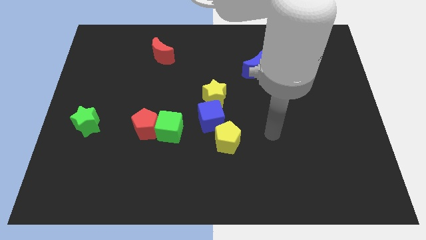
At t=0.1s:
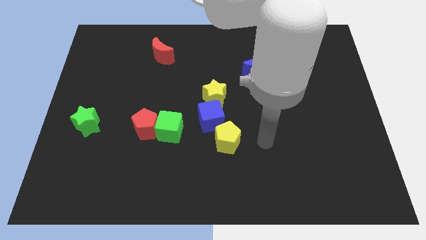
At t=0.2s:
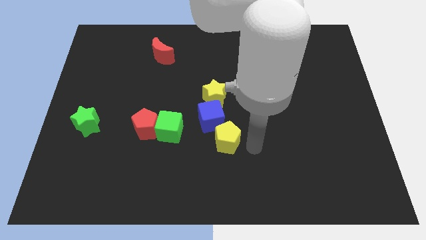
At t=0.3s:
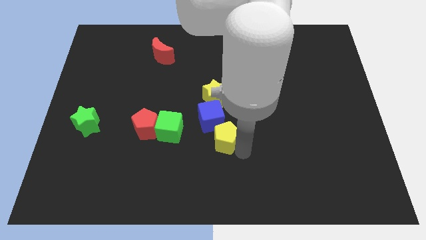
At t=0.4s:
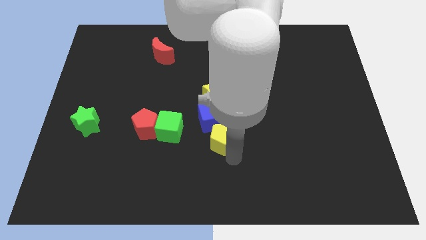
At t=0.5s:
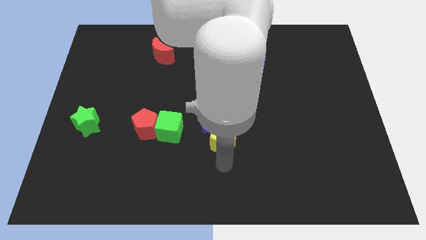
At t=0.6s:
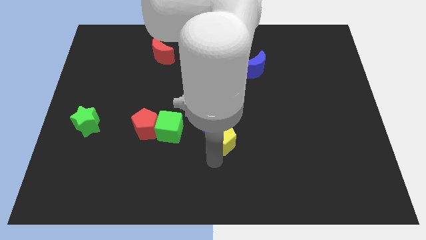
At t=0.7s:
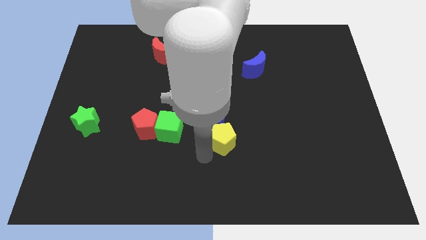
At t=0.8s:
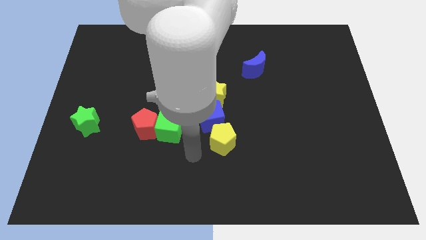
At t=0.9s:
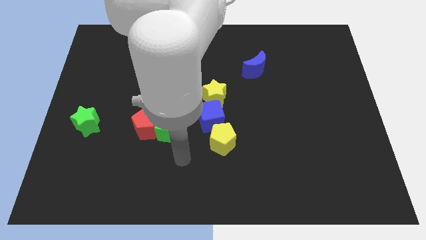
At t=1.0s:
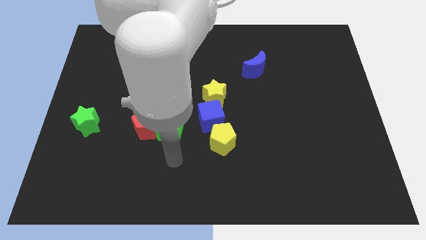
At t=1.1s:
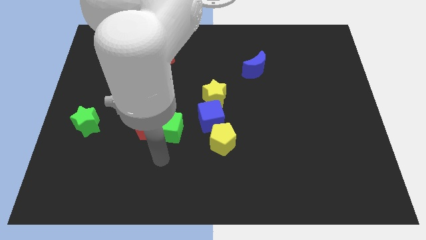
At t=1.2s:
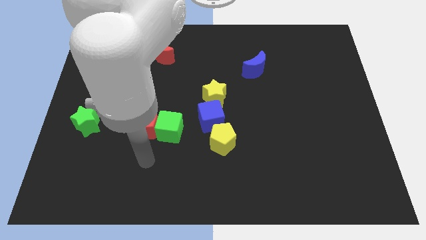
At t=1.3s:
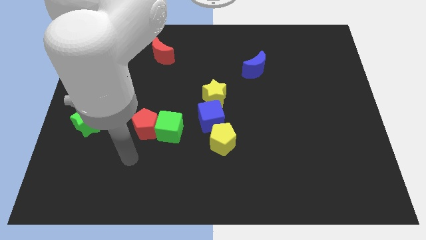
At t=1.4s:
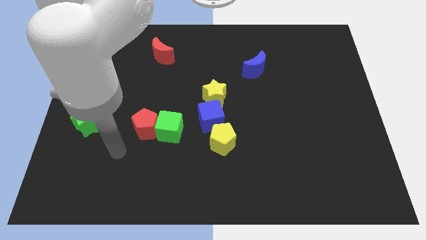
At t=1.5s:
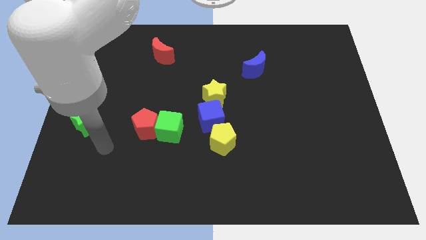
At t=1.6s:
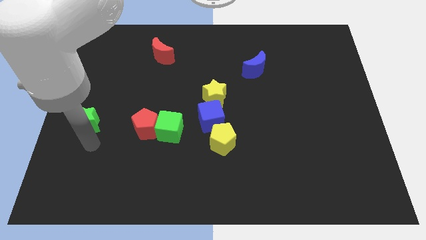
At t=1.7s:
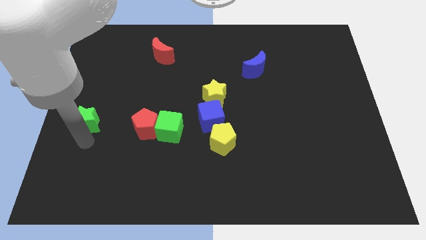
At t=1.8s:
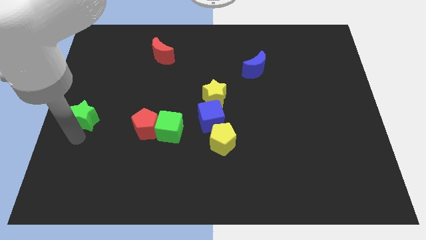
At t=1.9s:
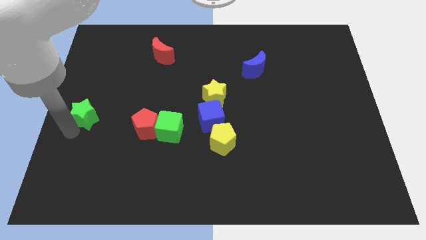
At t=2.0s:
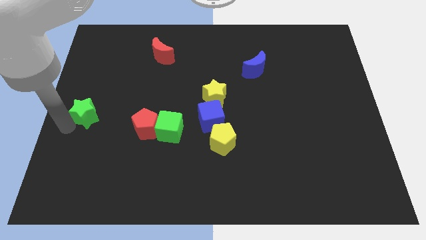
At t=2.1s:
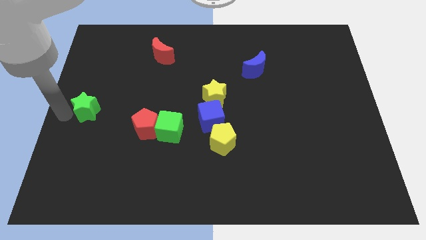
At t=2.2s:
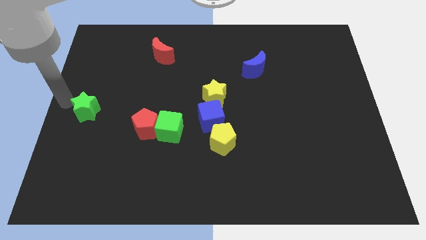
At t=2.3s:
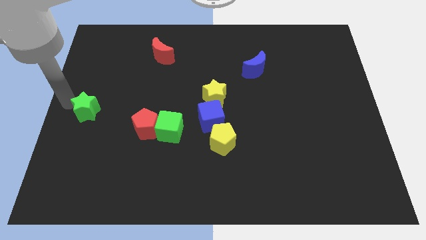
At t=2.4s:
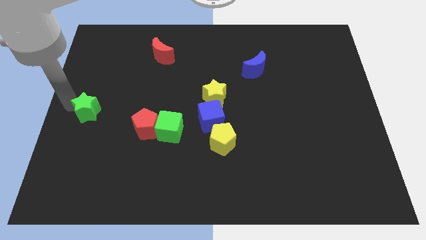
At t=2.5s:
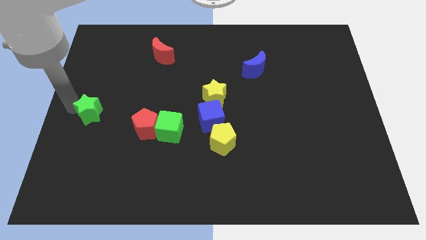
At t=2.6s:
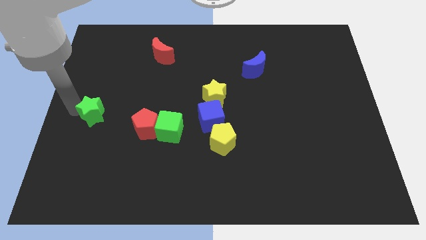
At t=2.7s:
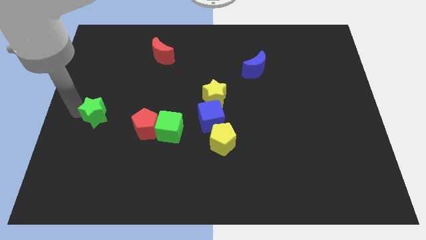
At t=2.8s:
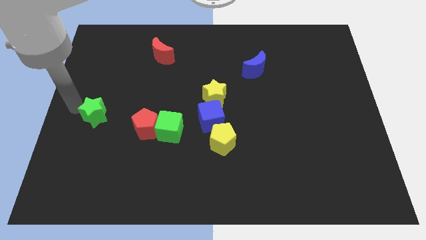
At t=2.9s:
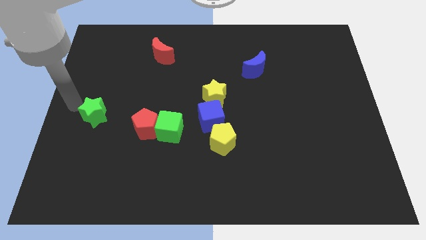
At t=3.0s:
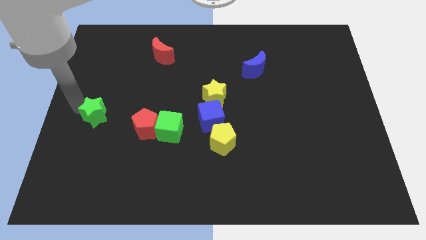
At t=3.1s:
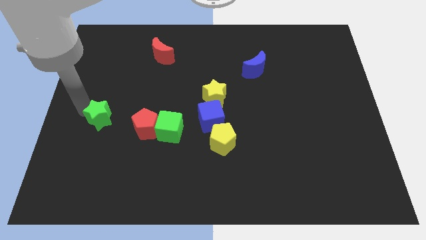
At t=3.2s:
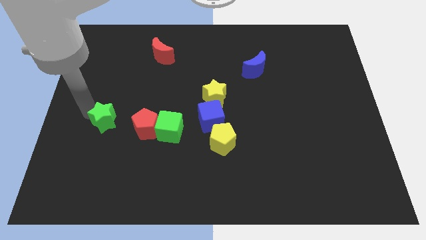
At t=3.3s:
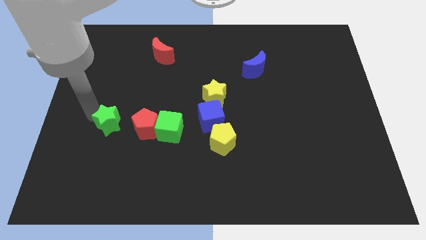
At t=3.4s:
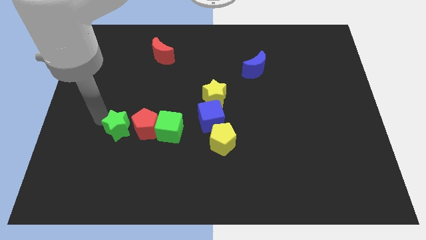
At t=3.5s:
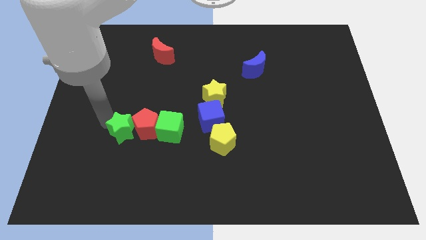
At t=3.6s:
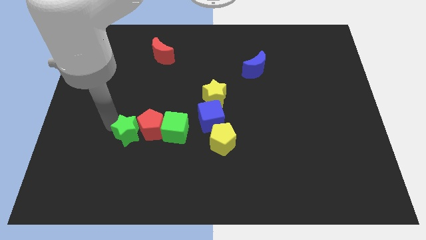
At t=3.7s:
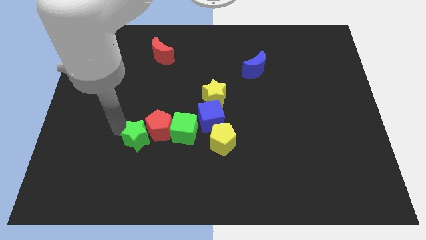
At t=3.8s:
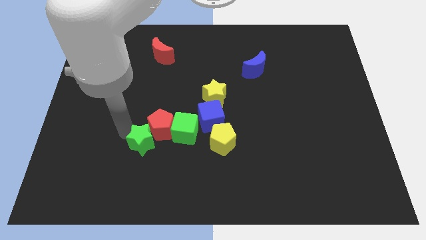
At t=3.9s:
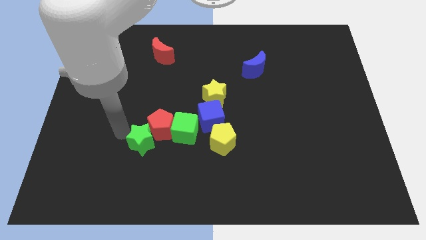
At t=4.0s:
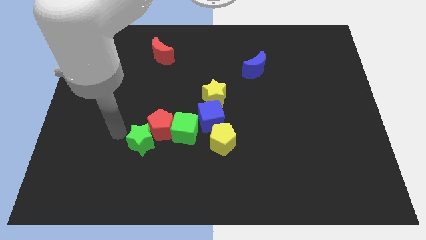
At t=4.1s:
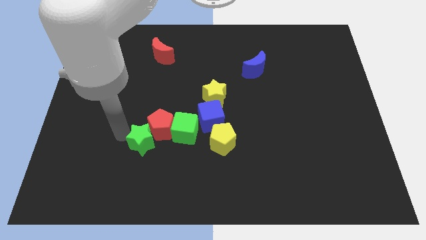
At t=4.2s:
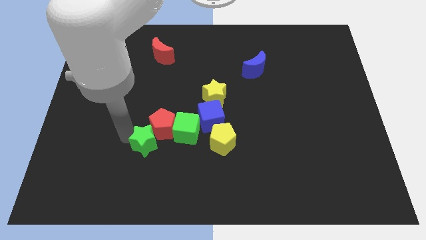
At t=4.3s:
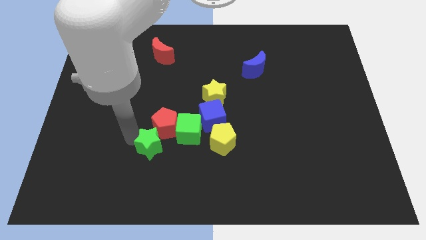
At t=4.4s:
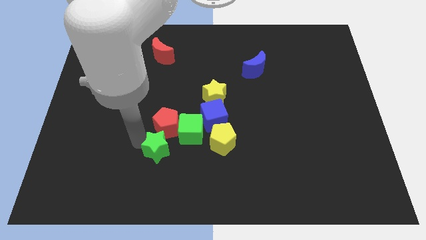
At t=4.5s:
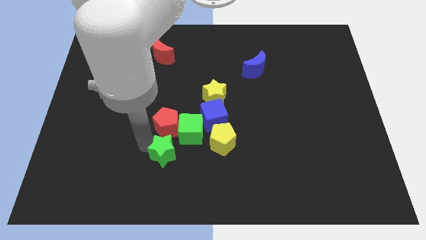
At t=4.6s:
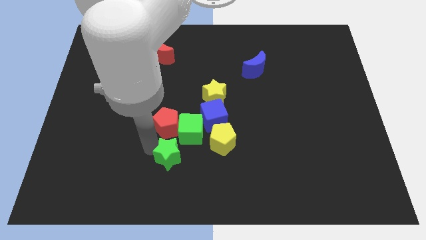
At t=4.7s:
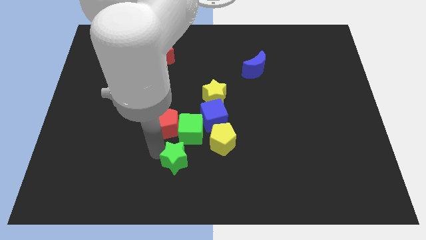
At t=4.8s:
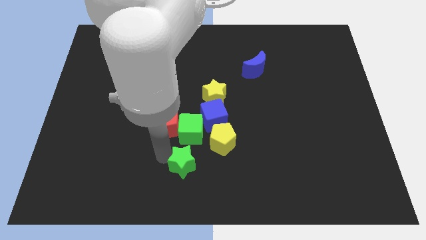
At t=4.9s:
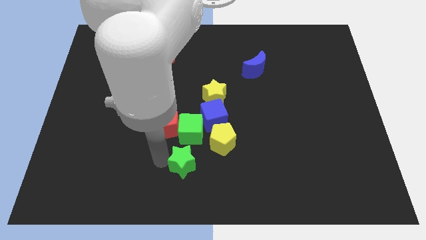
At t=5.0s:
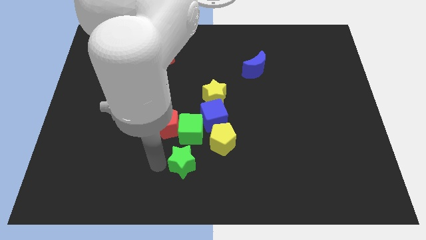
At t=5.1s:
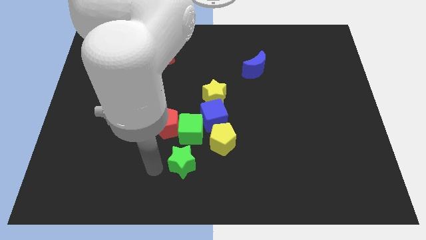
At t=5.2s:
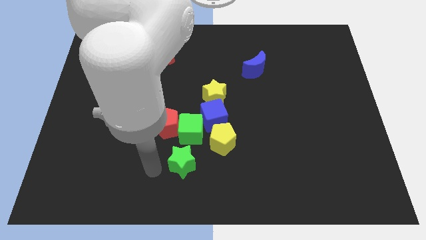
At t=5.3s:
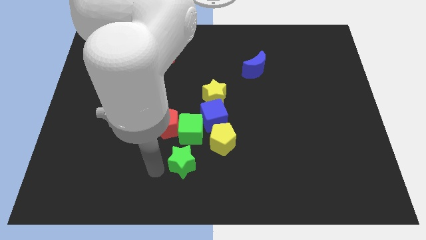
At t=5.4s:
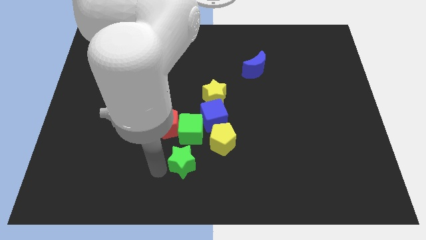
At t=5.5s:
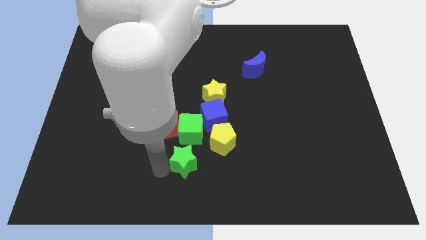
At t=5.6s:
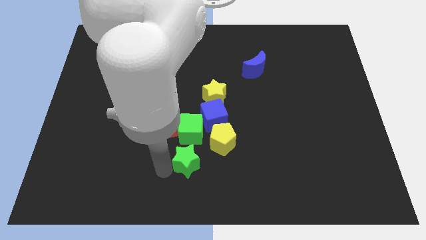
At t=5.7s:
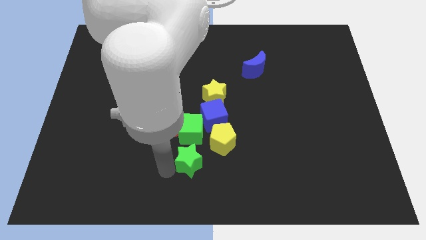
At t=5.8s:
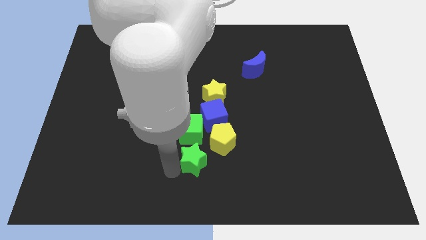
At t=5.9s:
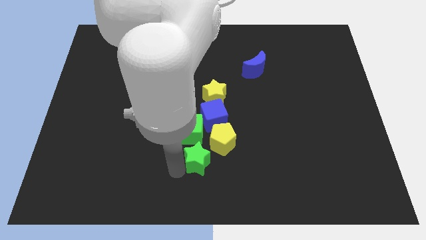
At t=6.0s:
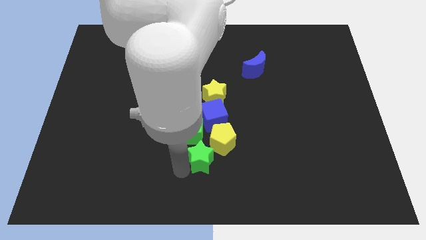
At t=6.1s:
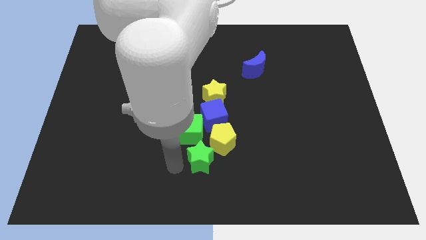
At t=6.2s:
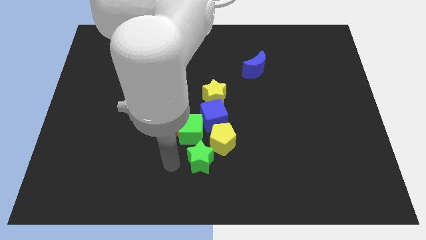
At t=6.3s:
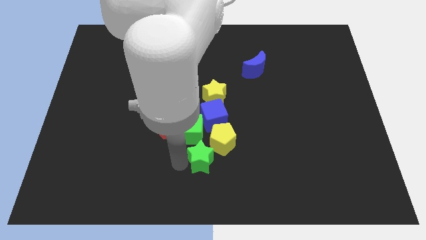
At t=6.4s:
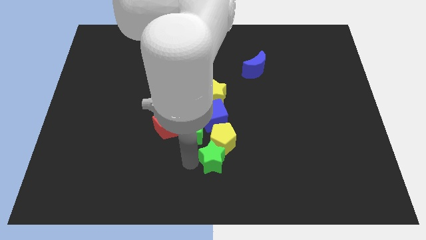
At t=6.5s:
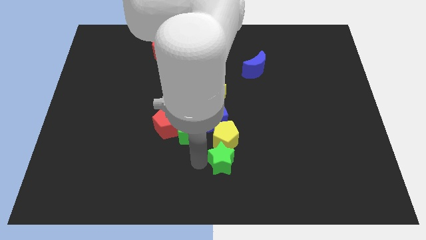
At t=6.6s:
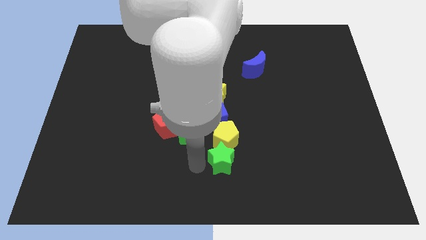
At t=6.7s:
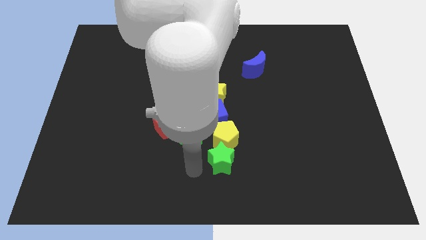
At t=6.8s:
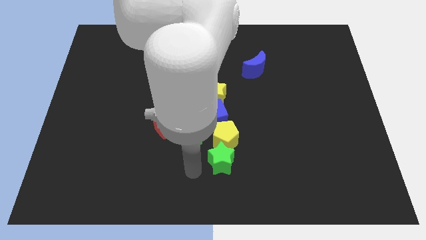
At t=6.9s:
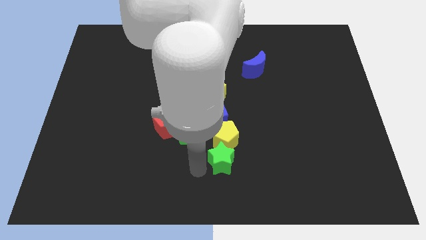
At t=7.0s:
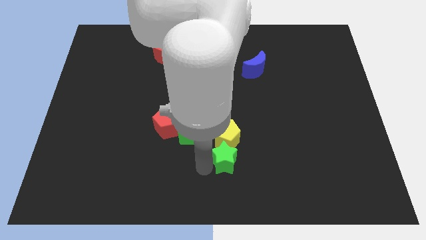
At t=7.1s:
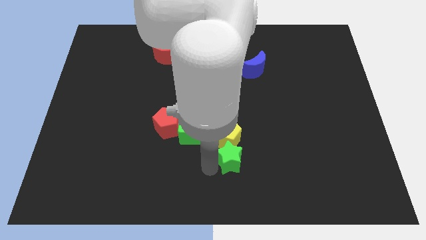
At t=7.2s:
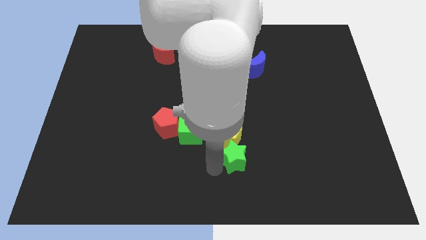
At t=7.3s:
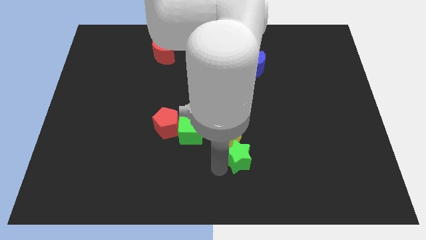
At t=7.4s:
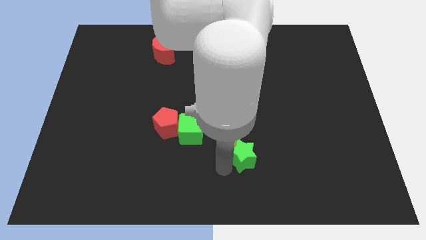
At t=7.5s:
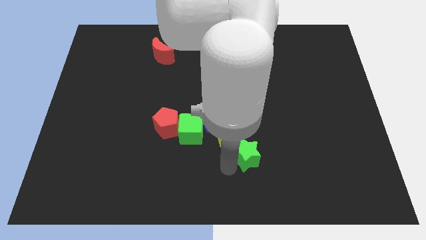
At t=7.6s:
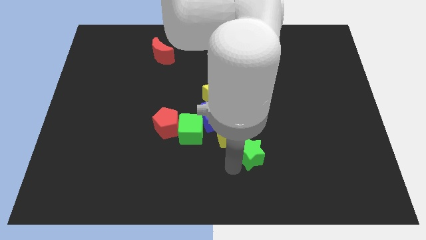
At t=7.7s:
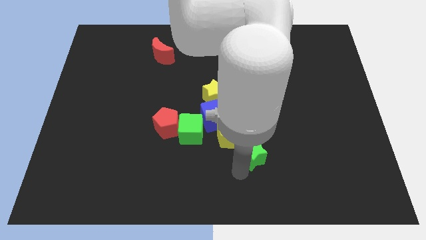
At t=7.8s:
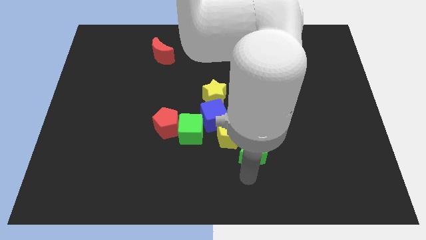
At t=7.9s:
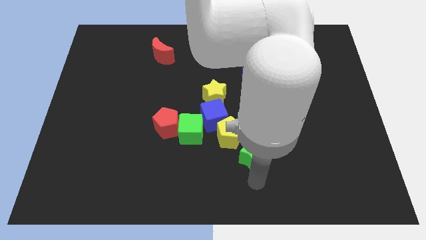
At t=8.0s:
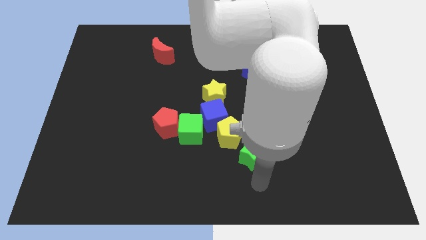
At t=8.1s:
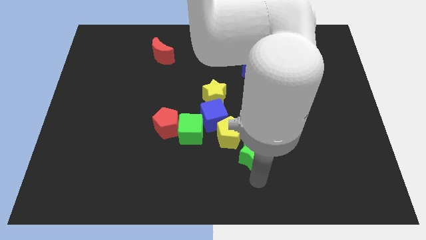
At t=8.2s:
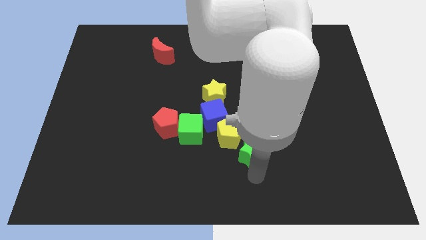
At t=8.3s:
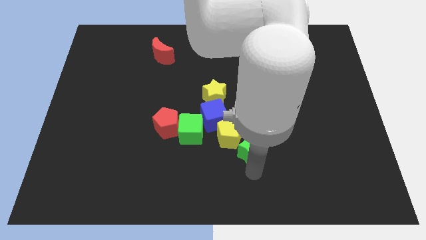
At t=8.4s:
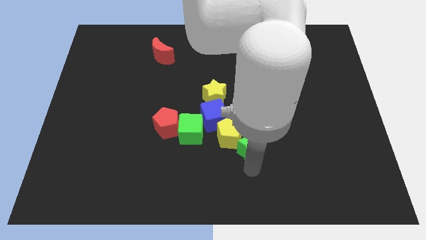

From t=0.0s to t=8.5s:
push the green star just right of the green cube
